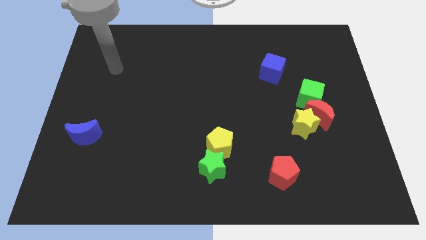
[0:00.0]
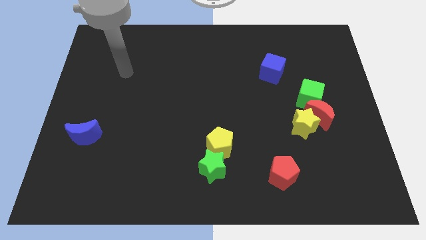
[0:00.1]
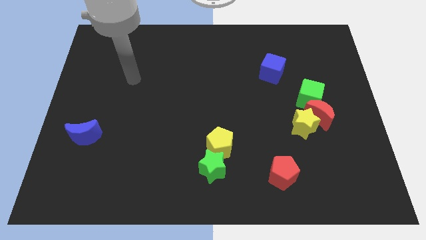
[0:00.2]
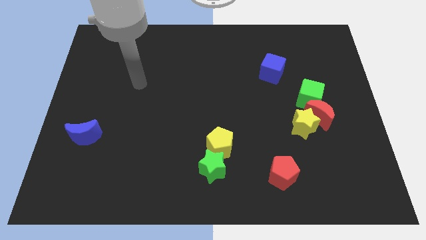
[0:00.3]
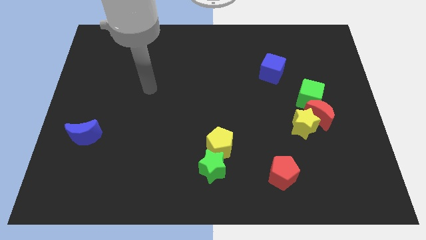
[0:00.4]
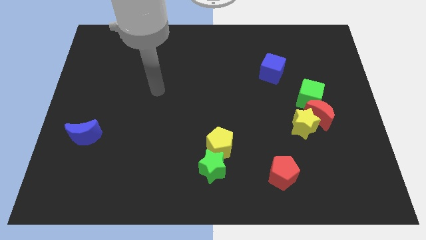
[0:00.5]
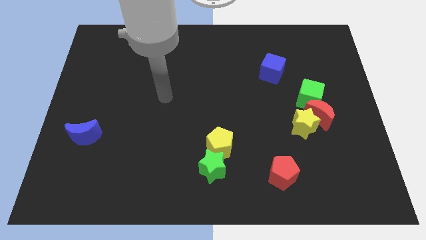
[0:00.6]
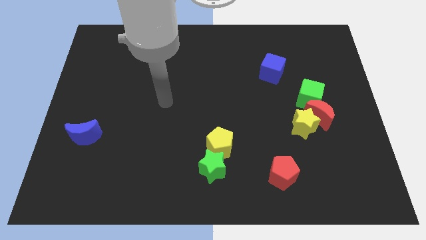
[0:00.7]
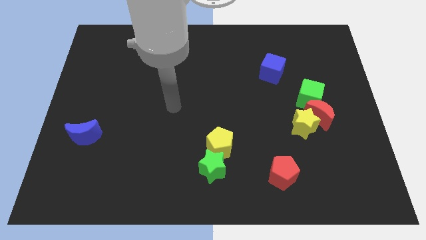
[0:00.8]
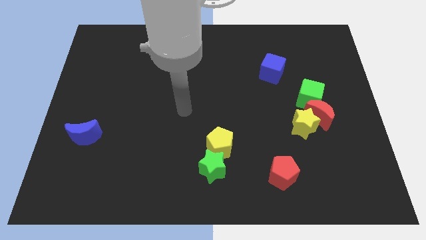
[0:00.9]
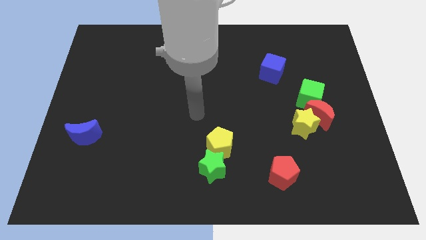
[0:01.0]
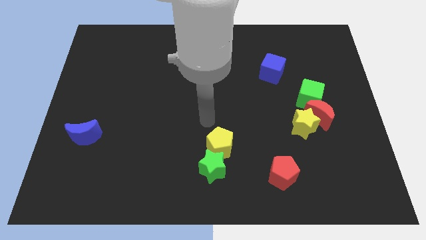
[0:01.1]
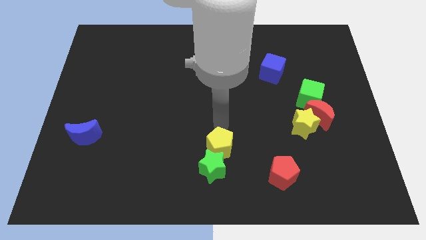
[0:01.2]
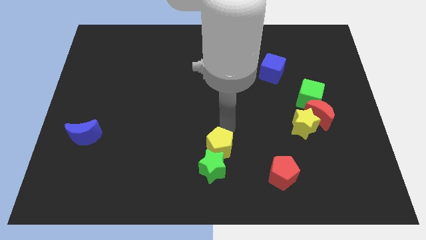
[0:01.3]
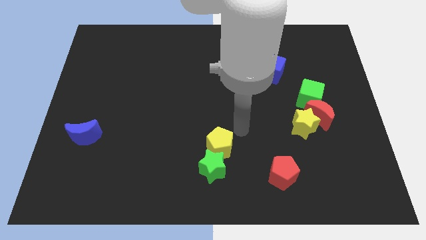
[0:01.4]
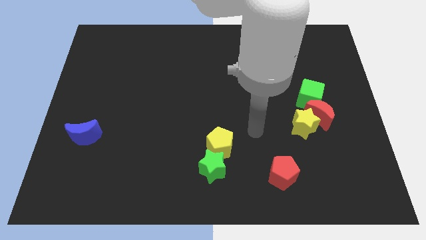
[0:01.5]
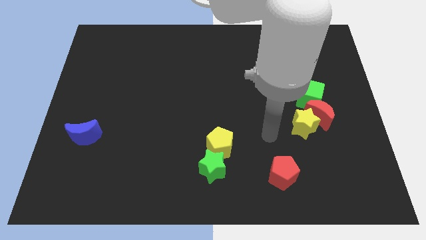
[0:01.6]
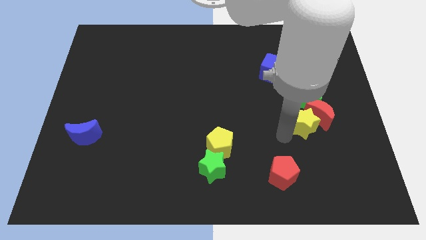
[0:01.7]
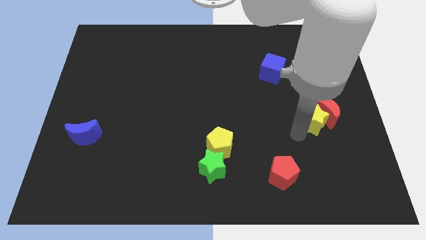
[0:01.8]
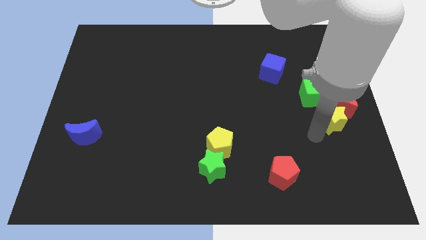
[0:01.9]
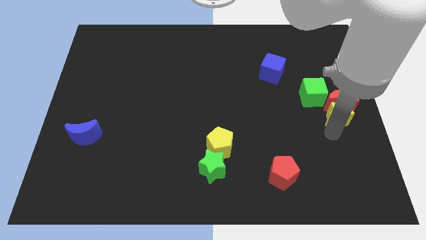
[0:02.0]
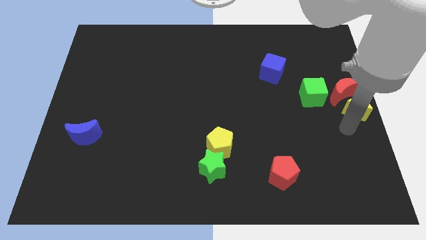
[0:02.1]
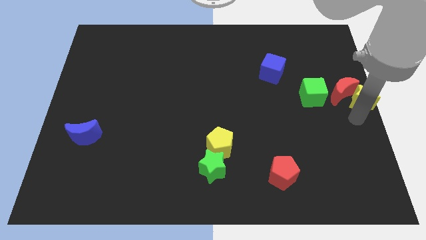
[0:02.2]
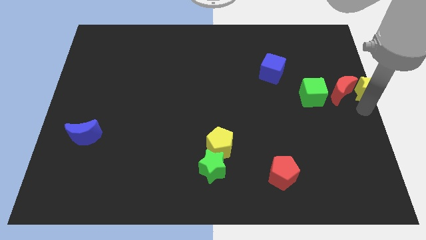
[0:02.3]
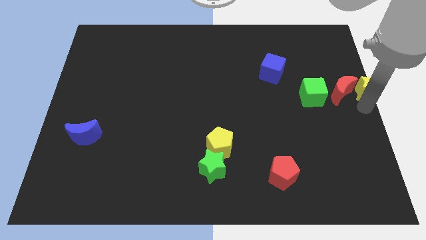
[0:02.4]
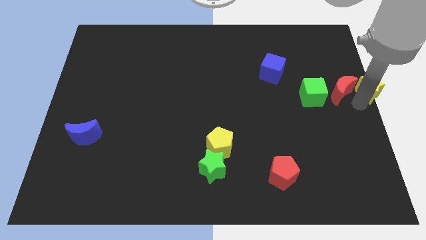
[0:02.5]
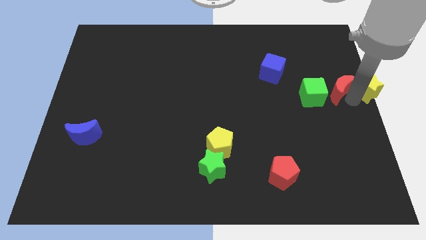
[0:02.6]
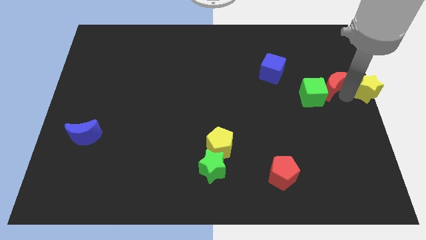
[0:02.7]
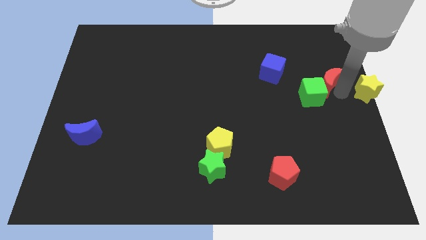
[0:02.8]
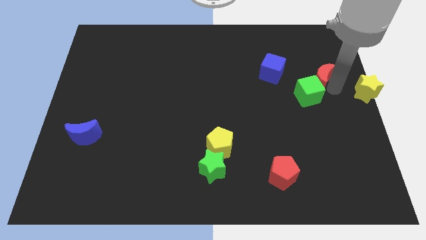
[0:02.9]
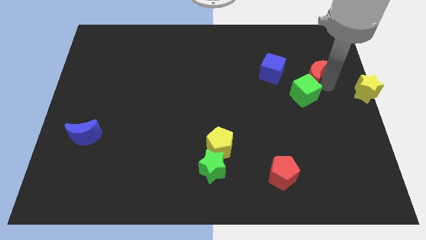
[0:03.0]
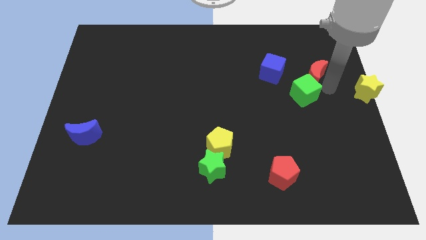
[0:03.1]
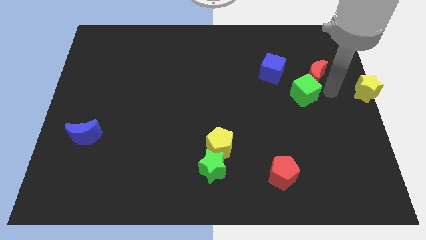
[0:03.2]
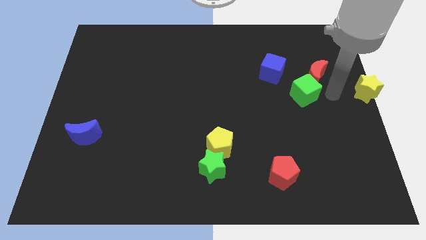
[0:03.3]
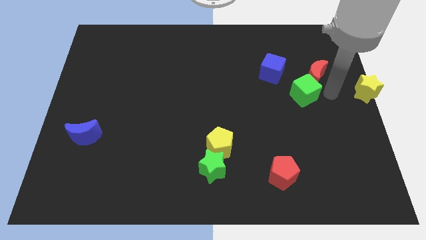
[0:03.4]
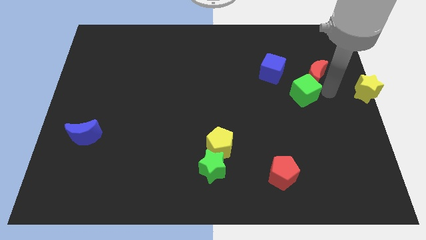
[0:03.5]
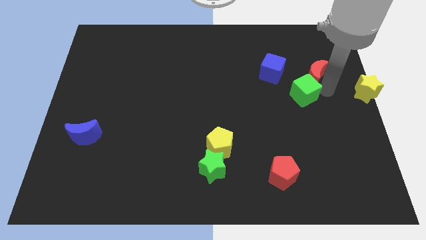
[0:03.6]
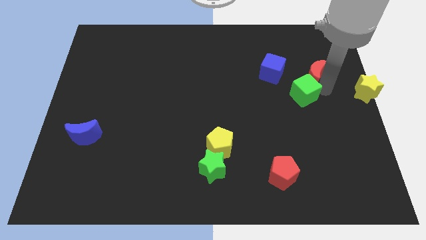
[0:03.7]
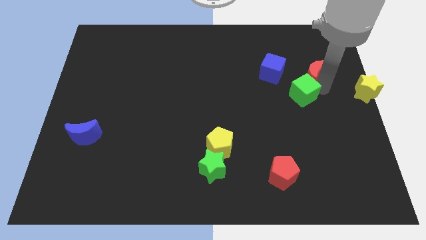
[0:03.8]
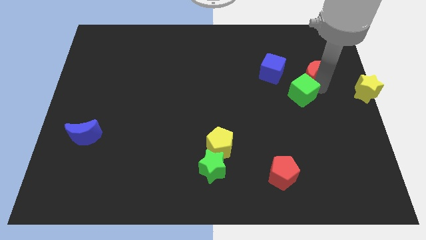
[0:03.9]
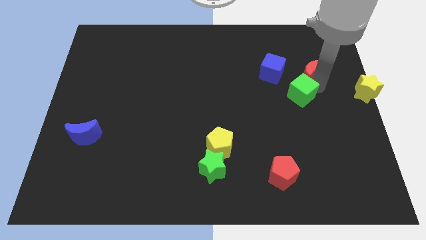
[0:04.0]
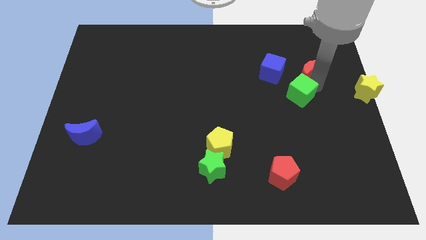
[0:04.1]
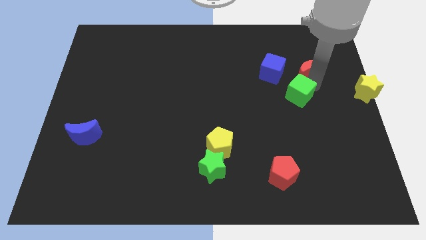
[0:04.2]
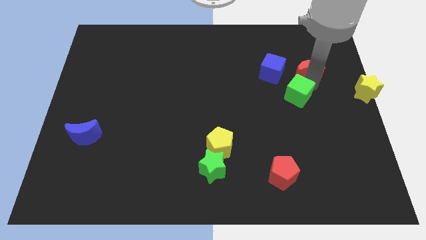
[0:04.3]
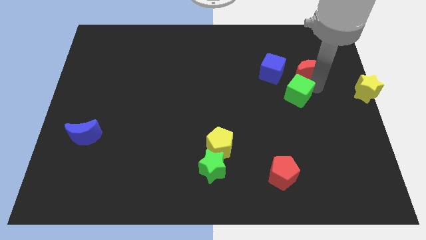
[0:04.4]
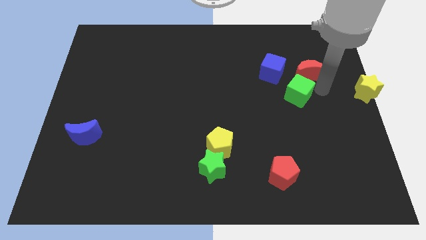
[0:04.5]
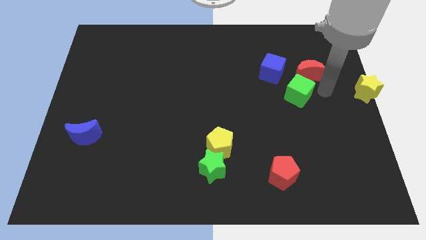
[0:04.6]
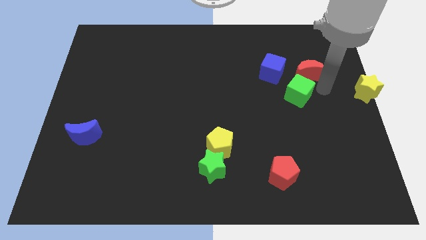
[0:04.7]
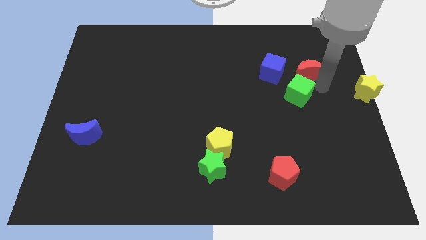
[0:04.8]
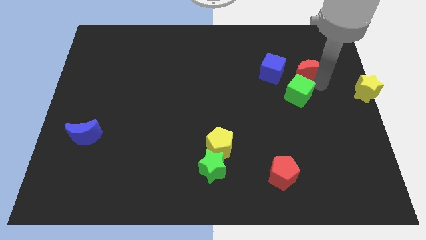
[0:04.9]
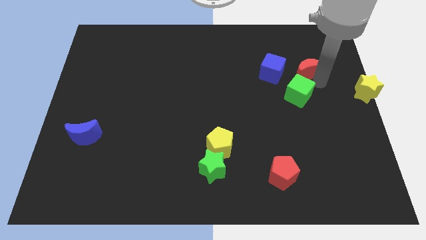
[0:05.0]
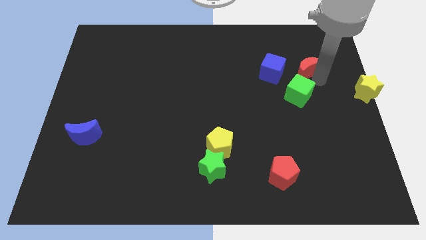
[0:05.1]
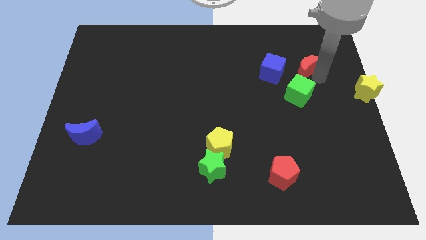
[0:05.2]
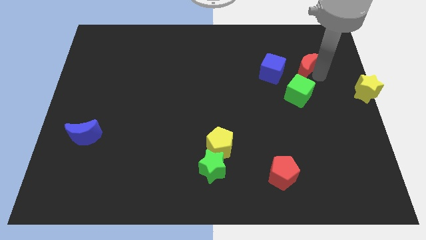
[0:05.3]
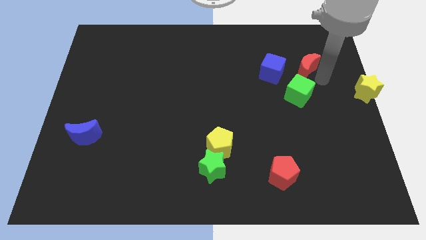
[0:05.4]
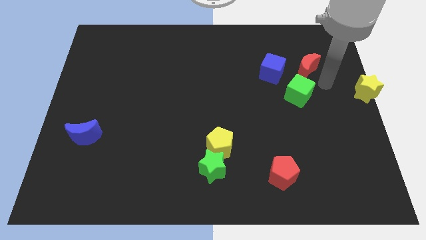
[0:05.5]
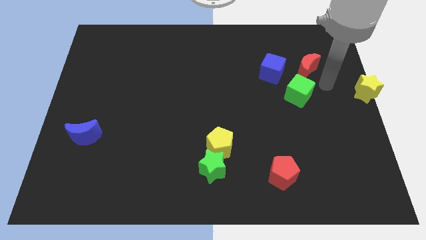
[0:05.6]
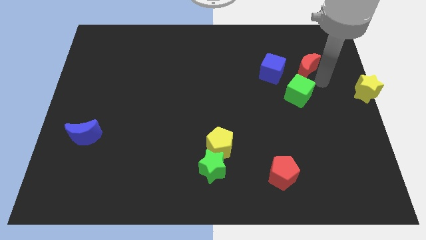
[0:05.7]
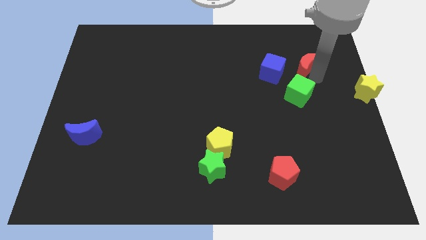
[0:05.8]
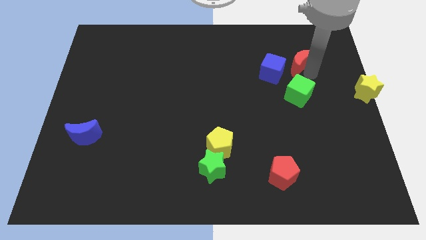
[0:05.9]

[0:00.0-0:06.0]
put the red moon diagonally up and to the right of the blue cube

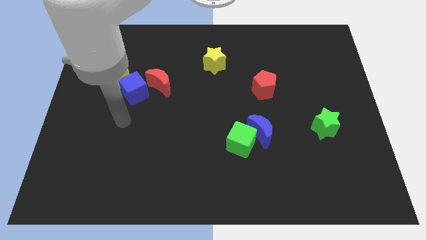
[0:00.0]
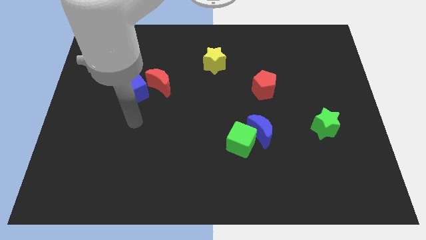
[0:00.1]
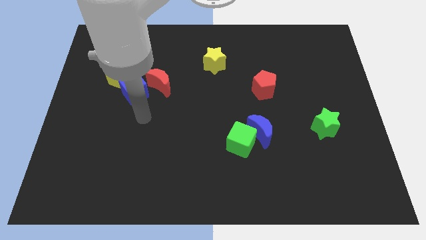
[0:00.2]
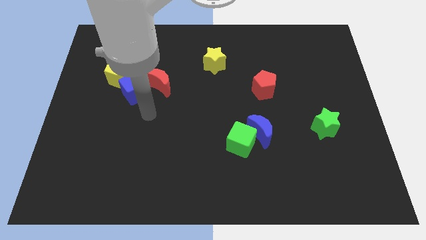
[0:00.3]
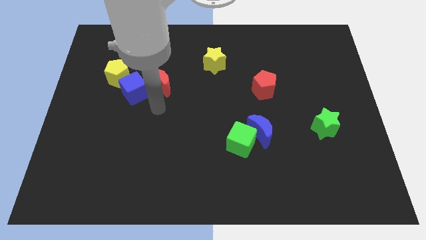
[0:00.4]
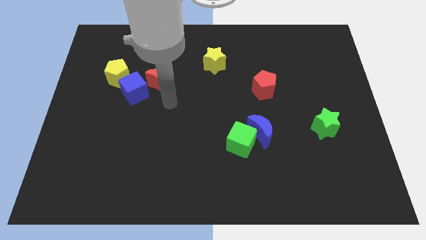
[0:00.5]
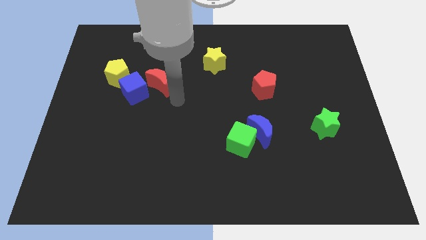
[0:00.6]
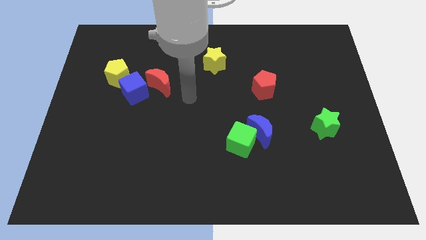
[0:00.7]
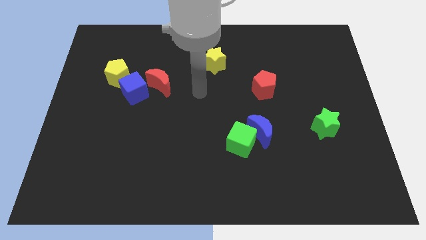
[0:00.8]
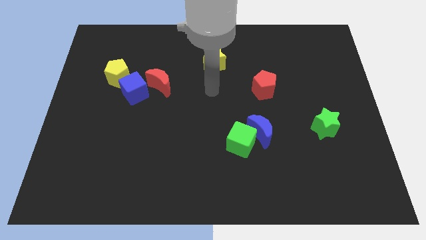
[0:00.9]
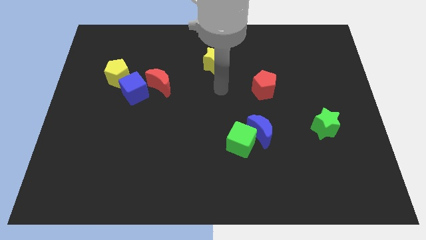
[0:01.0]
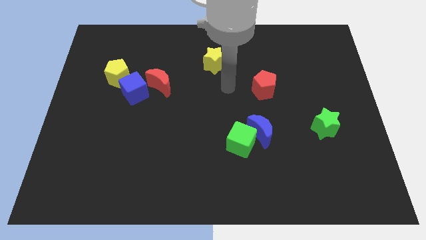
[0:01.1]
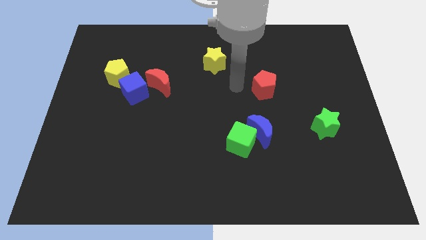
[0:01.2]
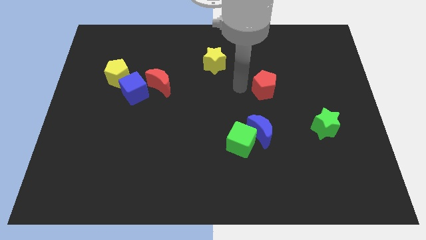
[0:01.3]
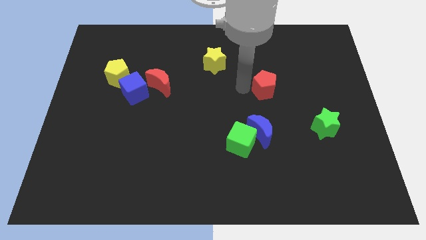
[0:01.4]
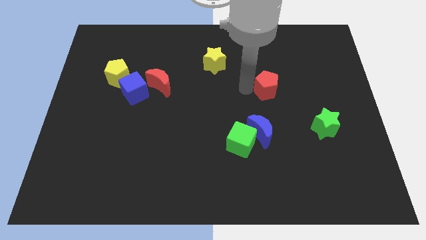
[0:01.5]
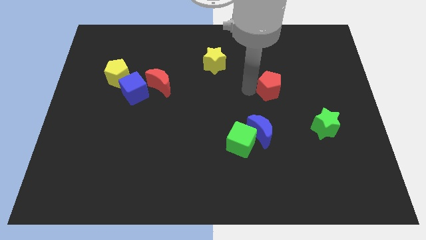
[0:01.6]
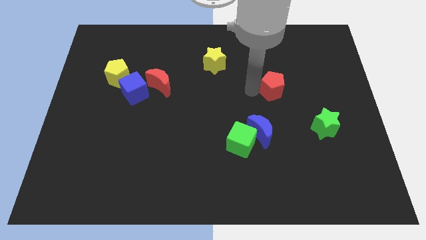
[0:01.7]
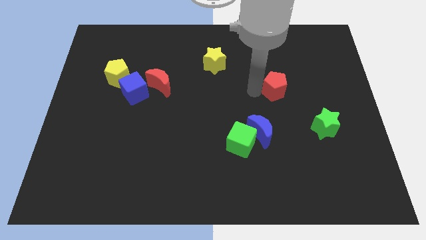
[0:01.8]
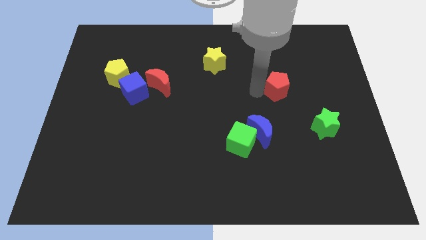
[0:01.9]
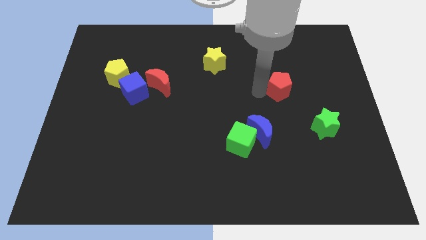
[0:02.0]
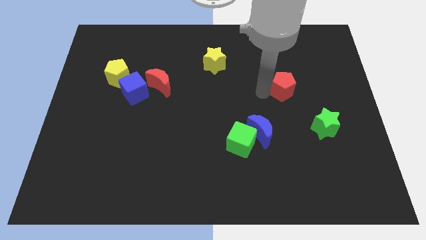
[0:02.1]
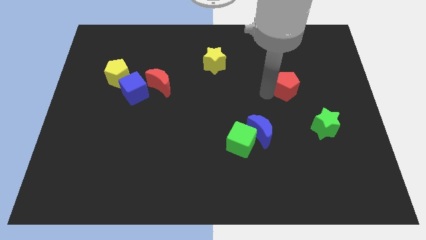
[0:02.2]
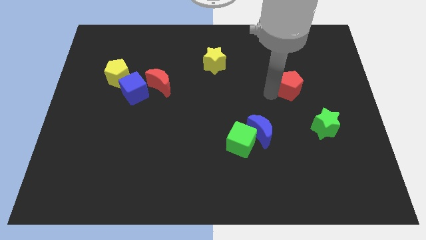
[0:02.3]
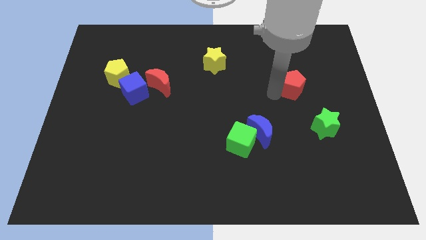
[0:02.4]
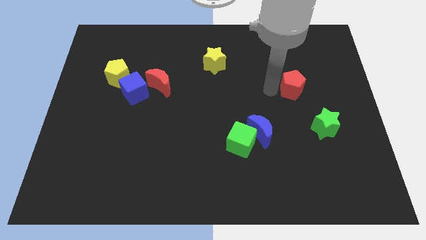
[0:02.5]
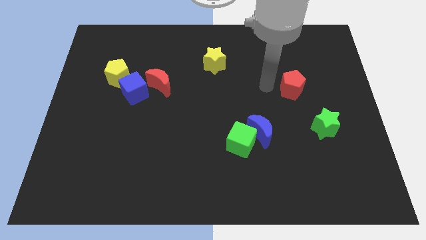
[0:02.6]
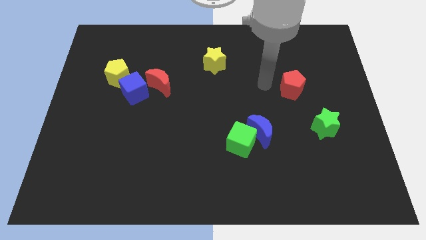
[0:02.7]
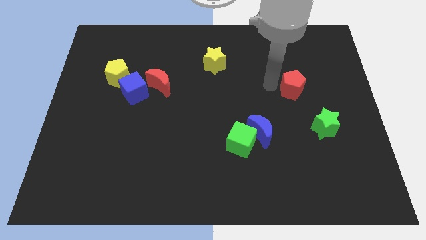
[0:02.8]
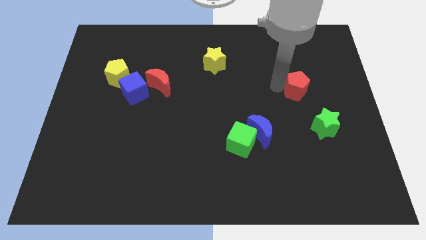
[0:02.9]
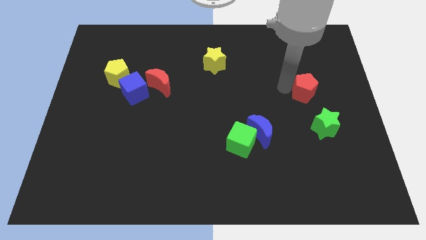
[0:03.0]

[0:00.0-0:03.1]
put the red pentagon to the top of the green star
